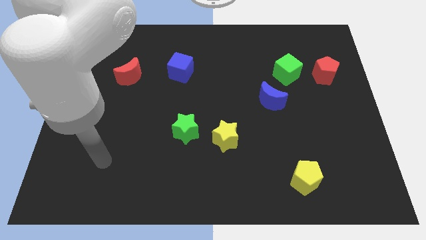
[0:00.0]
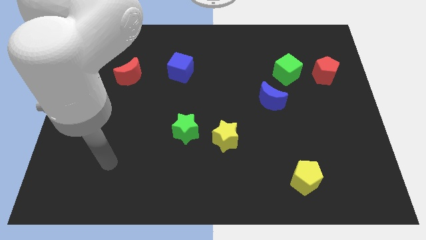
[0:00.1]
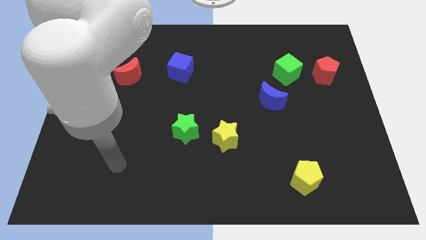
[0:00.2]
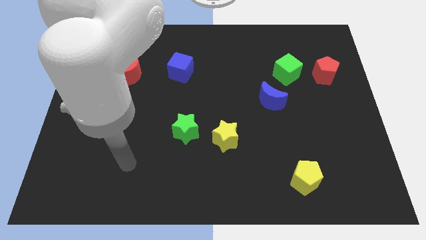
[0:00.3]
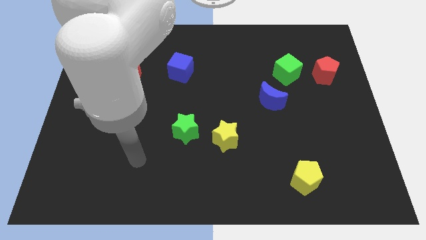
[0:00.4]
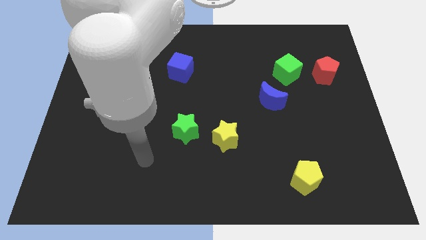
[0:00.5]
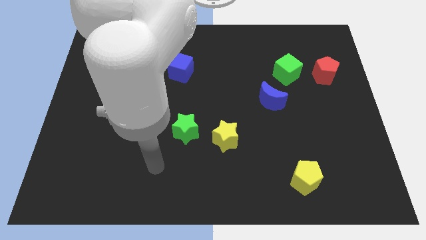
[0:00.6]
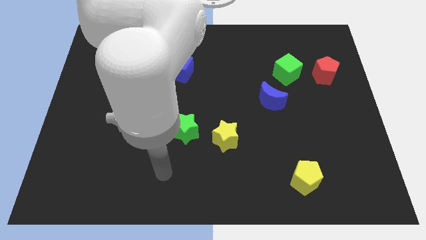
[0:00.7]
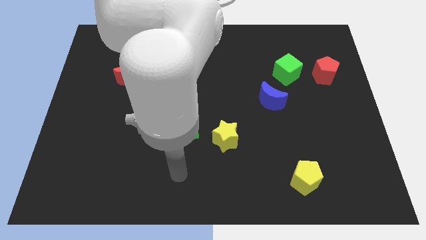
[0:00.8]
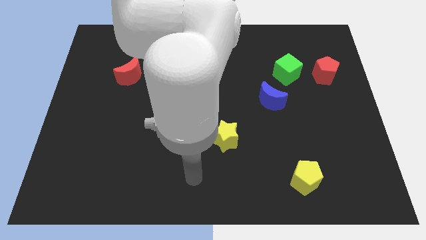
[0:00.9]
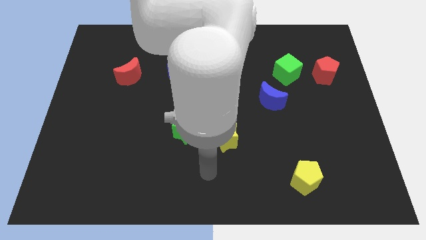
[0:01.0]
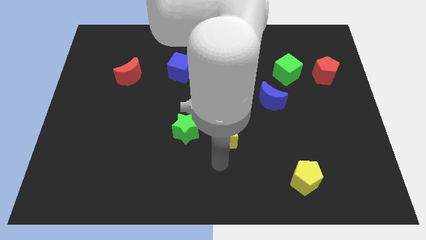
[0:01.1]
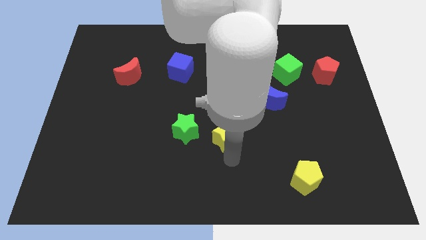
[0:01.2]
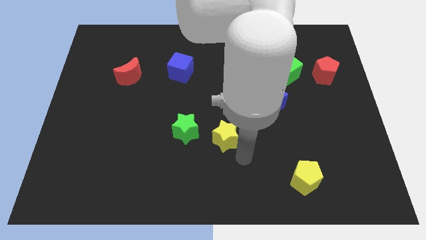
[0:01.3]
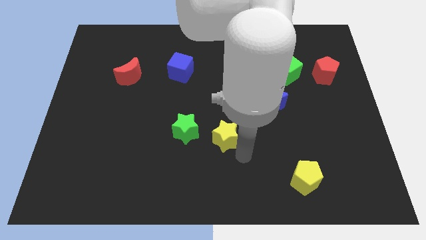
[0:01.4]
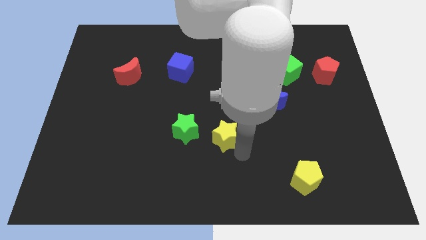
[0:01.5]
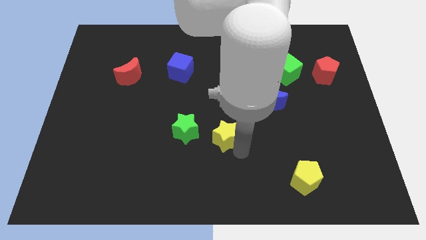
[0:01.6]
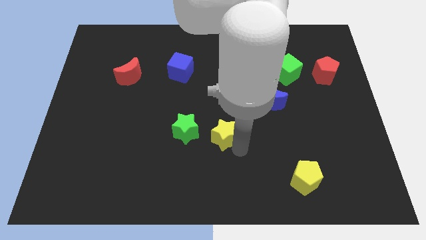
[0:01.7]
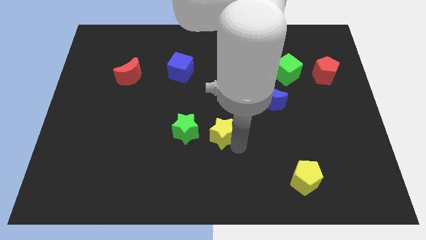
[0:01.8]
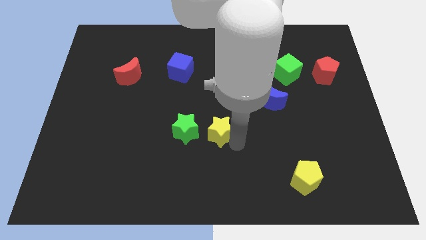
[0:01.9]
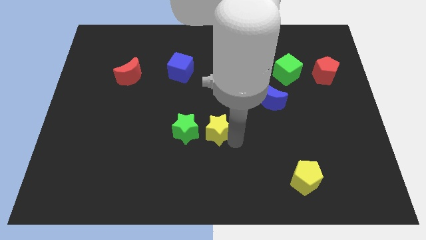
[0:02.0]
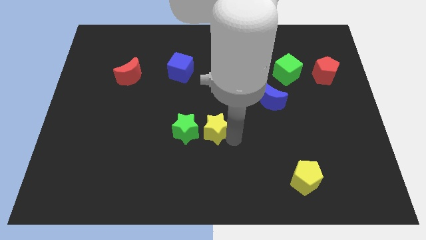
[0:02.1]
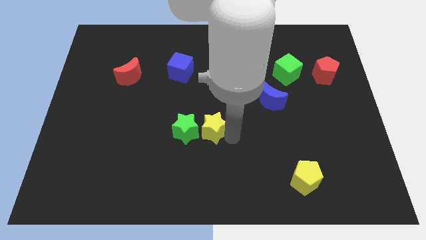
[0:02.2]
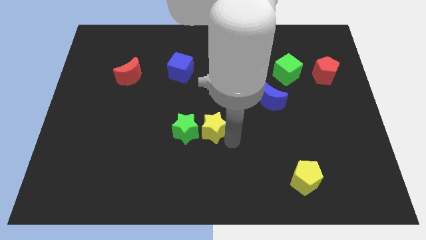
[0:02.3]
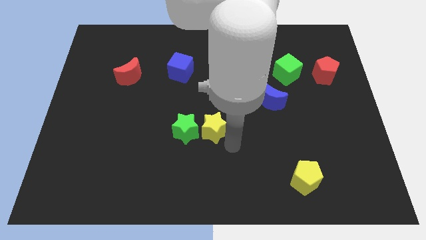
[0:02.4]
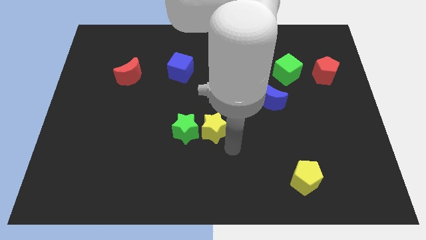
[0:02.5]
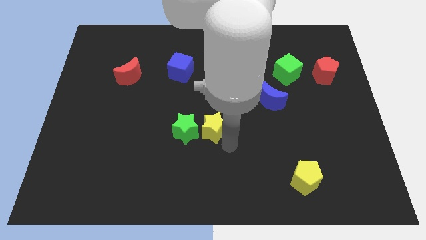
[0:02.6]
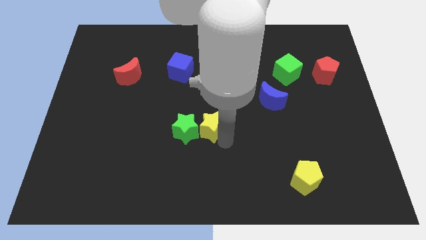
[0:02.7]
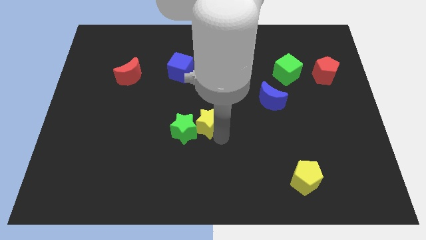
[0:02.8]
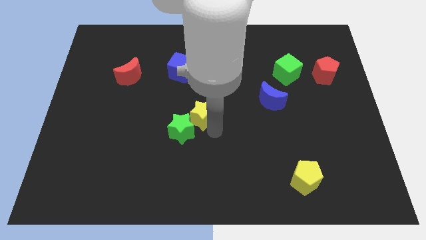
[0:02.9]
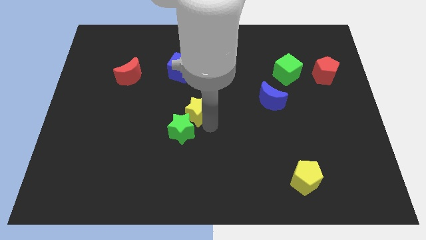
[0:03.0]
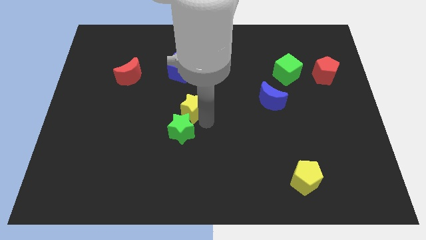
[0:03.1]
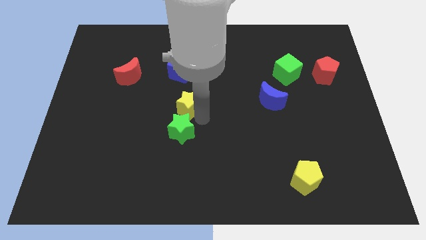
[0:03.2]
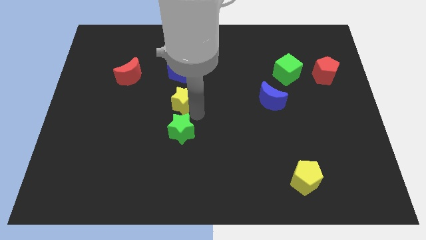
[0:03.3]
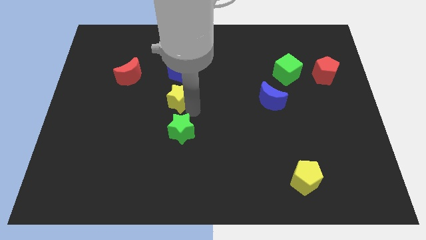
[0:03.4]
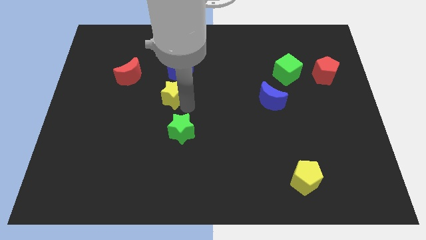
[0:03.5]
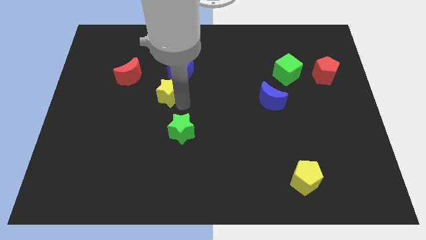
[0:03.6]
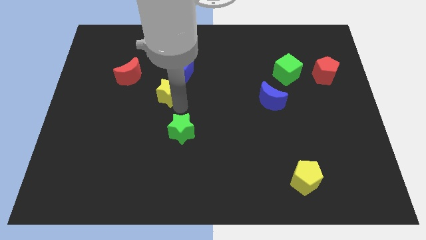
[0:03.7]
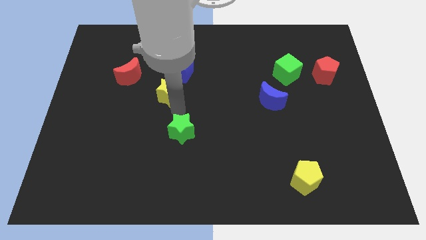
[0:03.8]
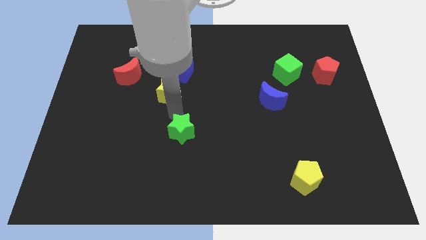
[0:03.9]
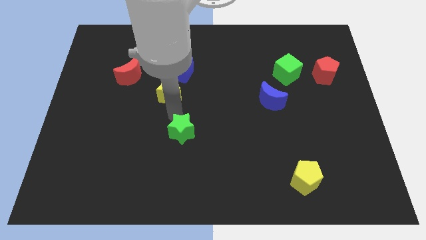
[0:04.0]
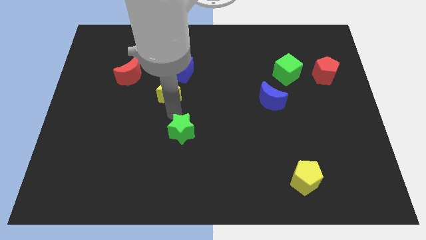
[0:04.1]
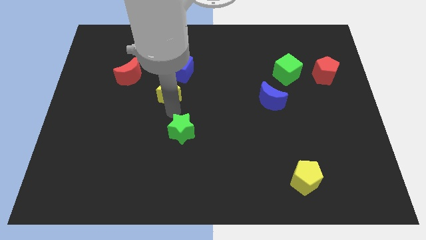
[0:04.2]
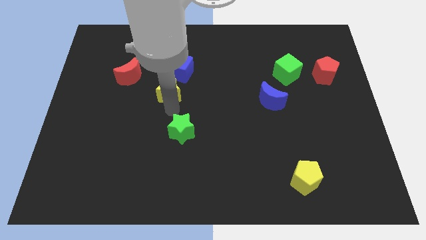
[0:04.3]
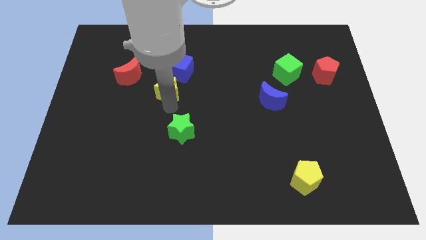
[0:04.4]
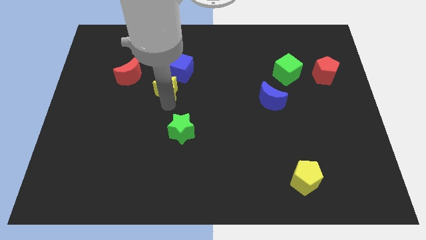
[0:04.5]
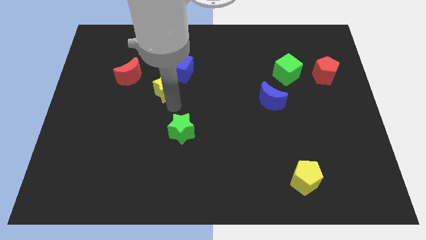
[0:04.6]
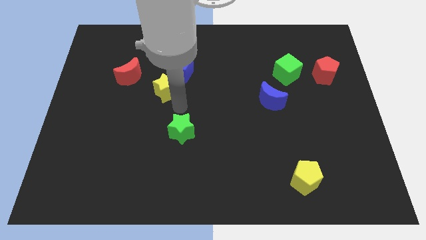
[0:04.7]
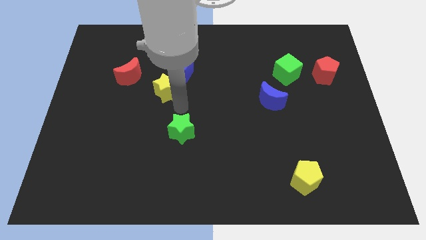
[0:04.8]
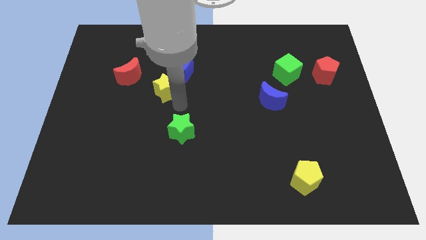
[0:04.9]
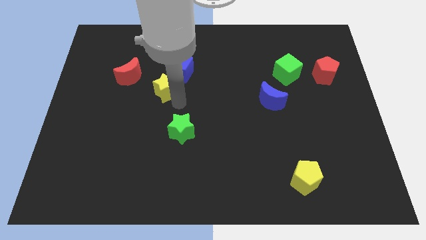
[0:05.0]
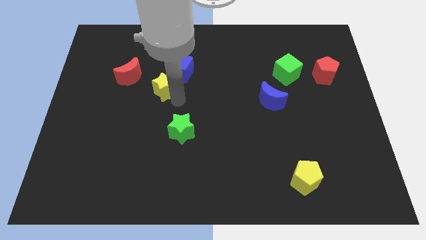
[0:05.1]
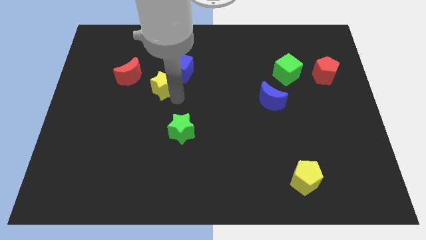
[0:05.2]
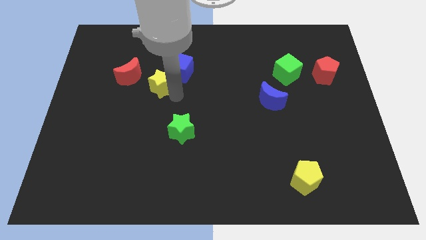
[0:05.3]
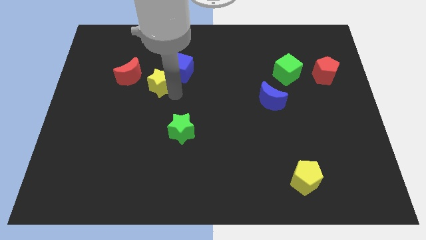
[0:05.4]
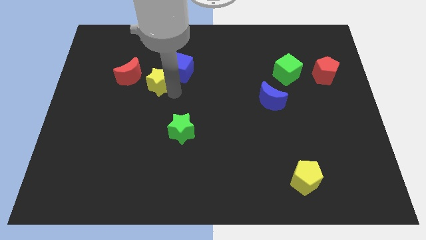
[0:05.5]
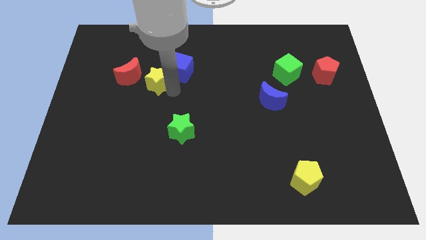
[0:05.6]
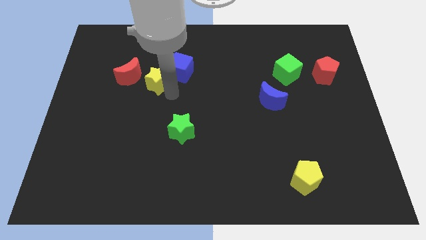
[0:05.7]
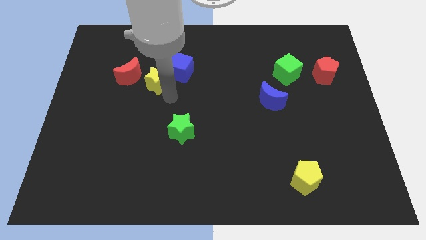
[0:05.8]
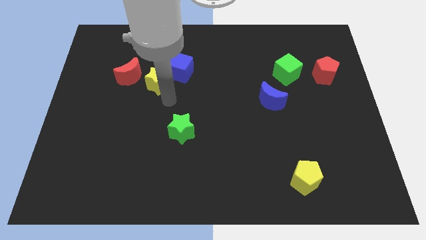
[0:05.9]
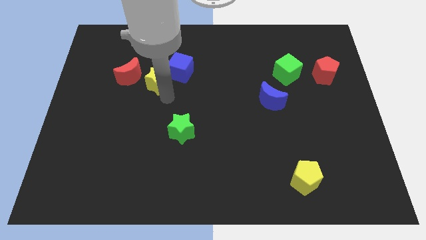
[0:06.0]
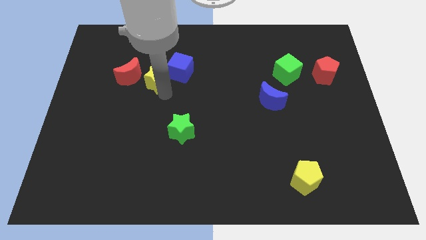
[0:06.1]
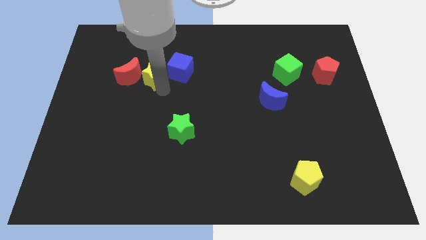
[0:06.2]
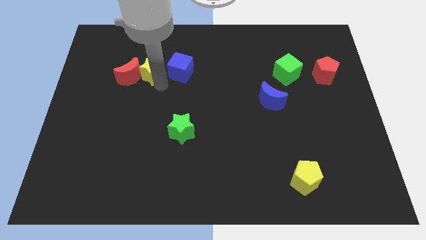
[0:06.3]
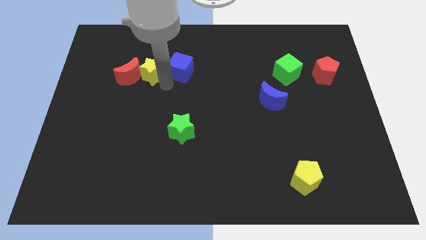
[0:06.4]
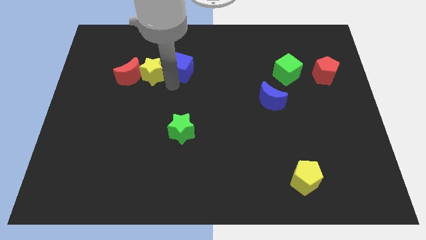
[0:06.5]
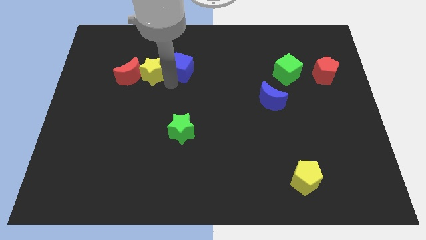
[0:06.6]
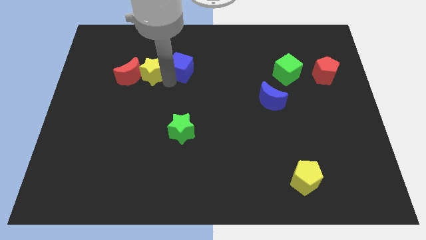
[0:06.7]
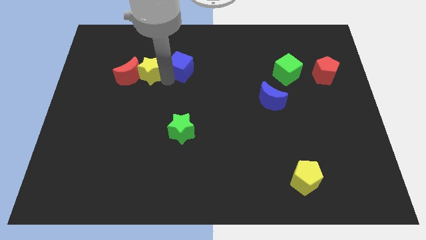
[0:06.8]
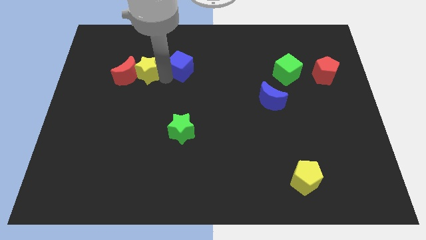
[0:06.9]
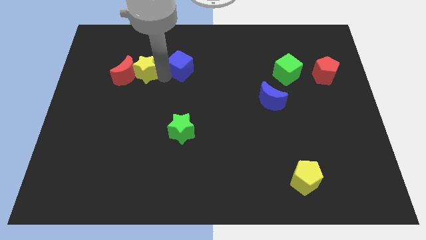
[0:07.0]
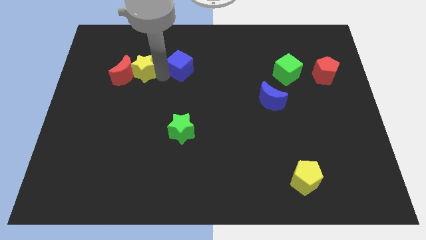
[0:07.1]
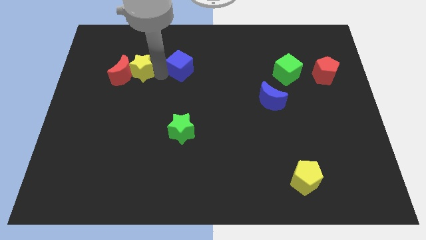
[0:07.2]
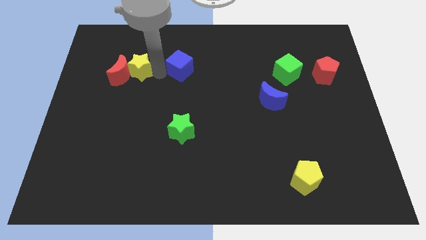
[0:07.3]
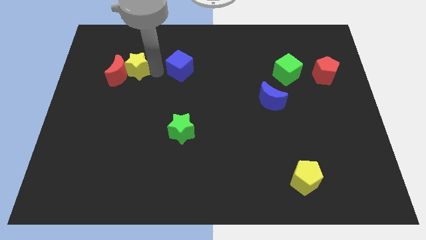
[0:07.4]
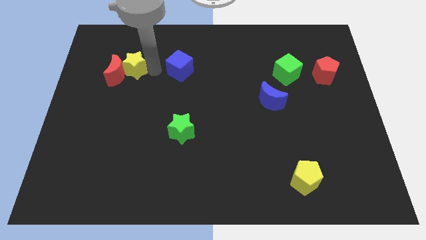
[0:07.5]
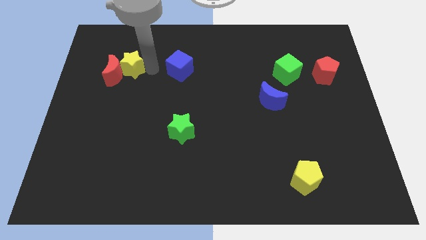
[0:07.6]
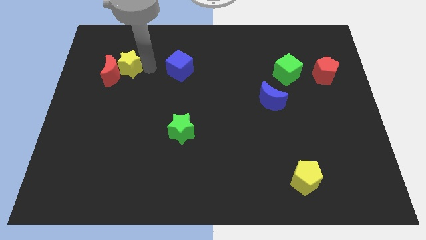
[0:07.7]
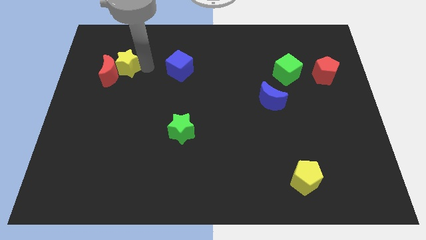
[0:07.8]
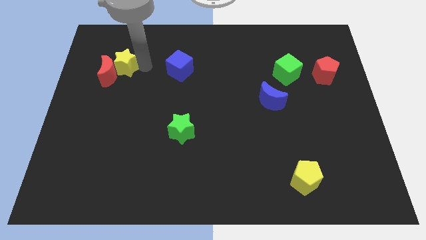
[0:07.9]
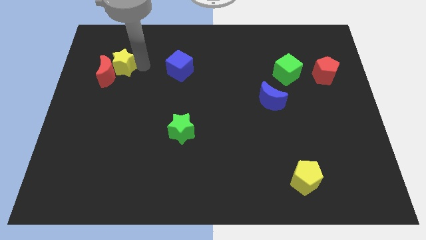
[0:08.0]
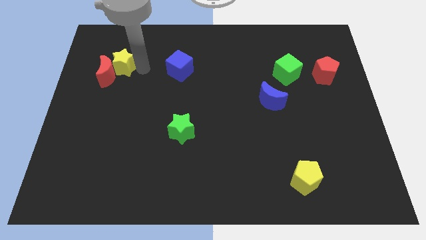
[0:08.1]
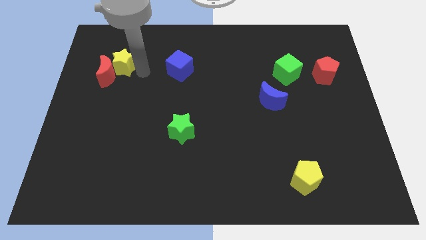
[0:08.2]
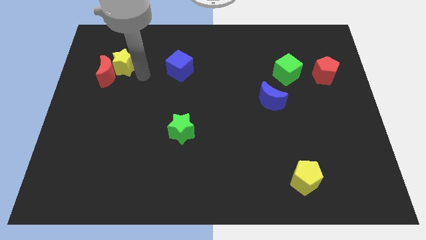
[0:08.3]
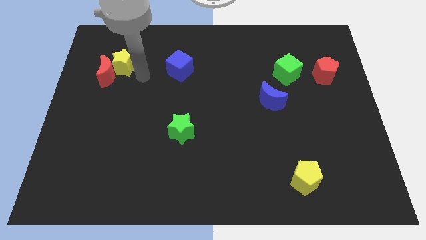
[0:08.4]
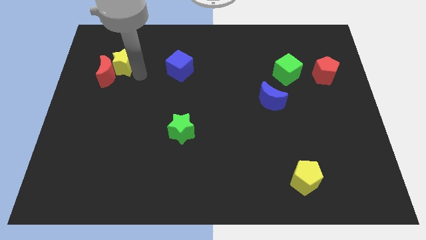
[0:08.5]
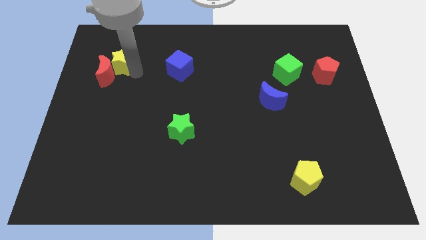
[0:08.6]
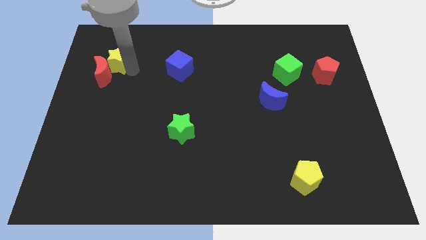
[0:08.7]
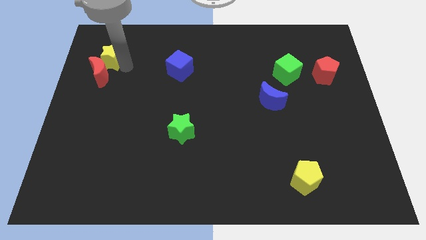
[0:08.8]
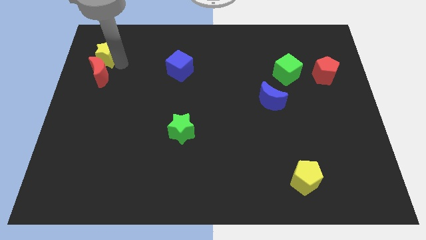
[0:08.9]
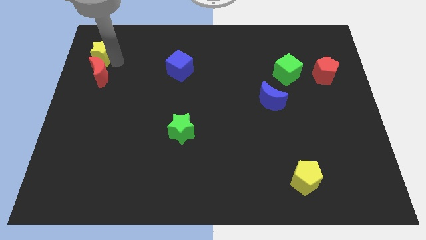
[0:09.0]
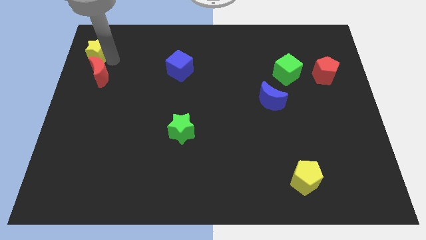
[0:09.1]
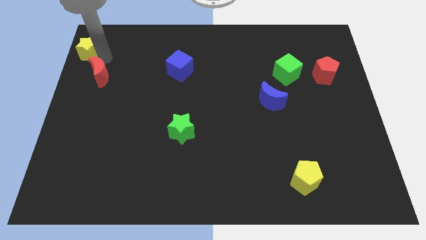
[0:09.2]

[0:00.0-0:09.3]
move the yellow star to the top left of the board
